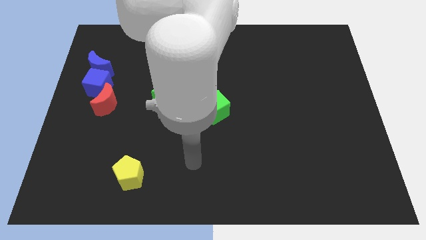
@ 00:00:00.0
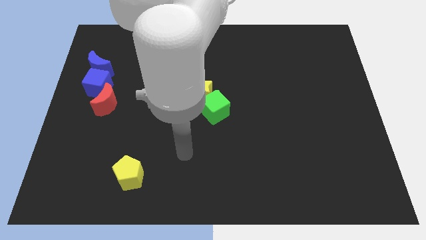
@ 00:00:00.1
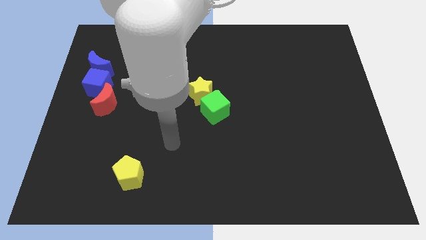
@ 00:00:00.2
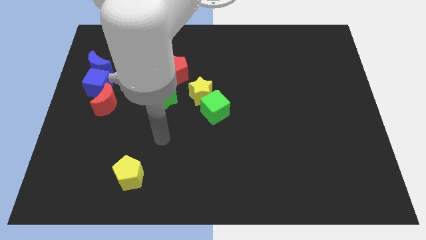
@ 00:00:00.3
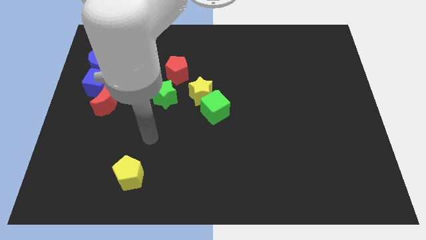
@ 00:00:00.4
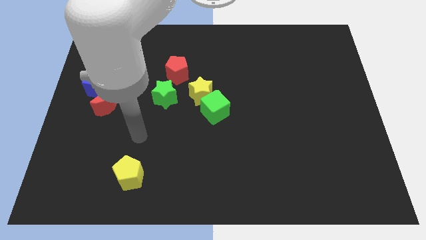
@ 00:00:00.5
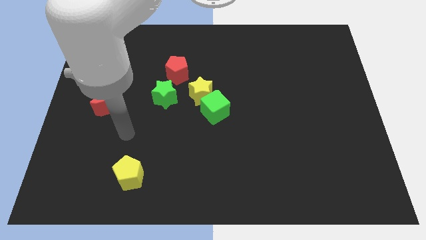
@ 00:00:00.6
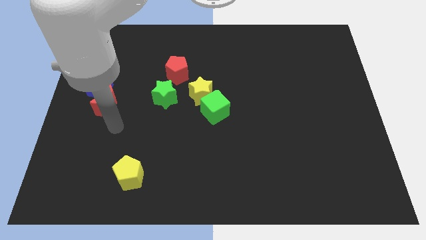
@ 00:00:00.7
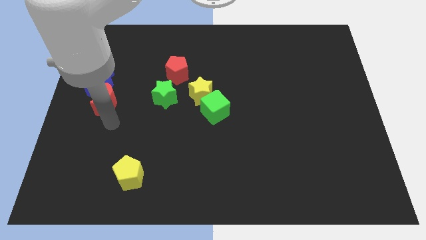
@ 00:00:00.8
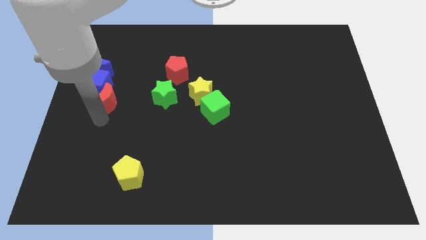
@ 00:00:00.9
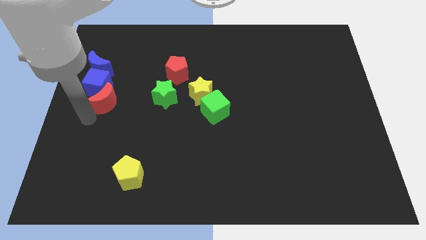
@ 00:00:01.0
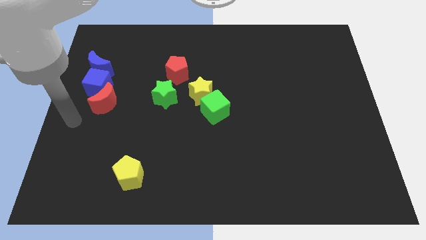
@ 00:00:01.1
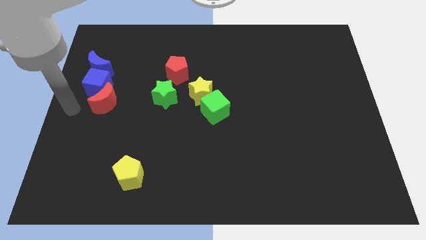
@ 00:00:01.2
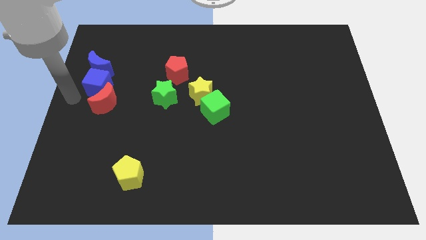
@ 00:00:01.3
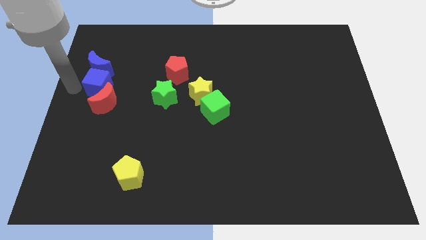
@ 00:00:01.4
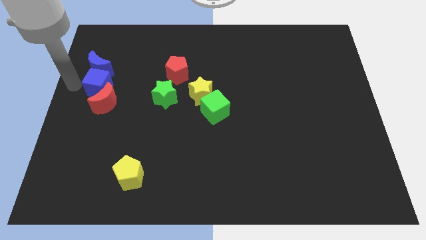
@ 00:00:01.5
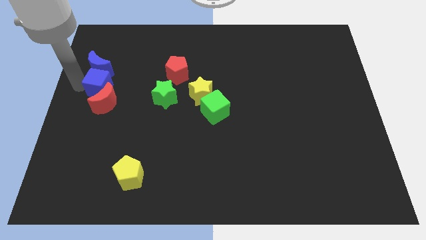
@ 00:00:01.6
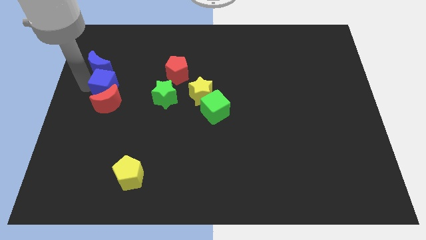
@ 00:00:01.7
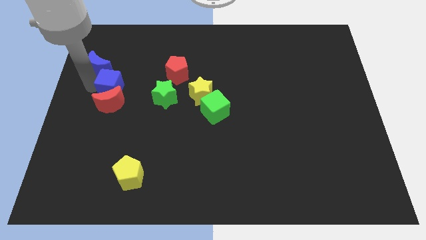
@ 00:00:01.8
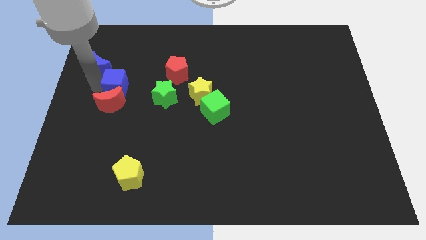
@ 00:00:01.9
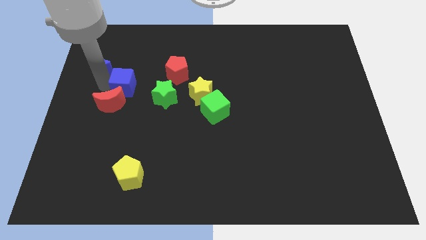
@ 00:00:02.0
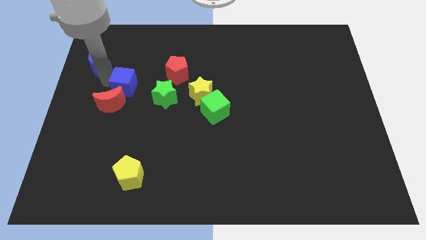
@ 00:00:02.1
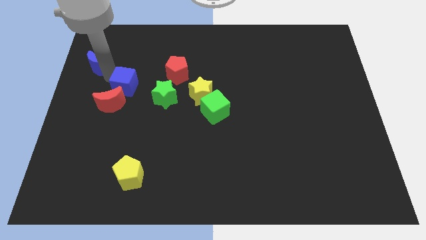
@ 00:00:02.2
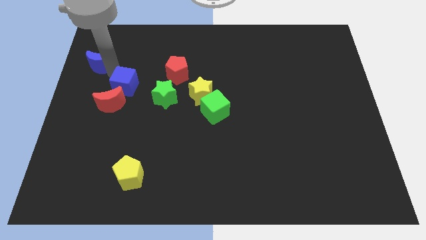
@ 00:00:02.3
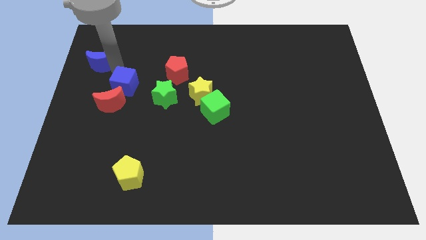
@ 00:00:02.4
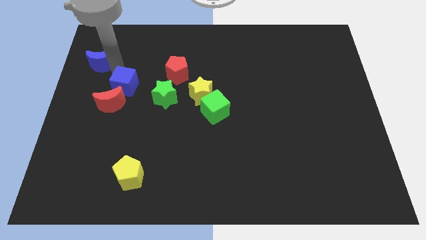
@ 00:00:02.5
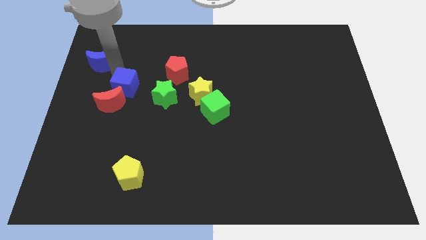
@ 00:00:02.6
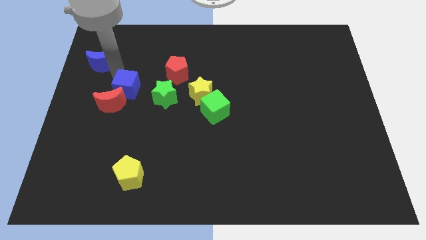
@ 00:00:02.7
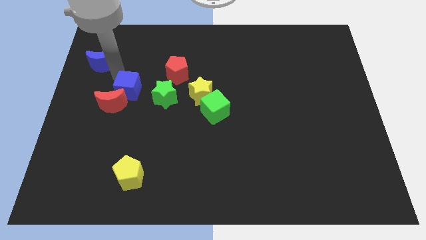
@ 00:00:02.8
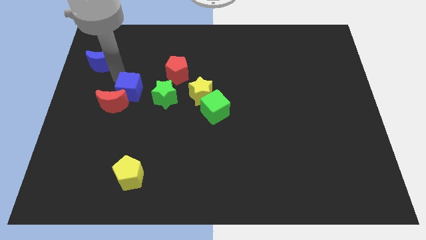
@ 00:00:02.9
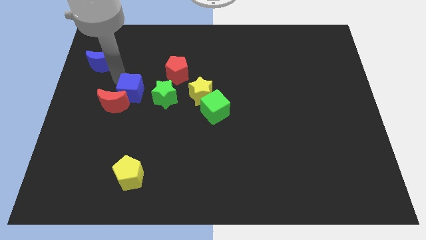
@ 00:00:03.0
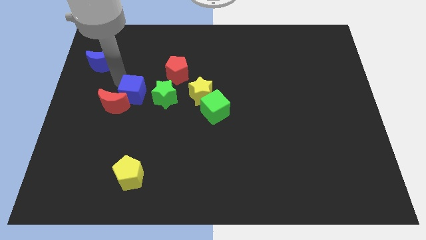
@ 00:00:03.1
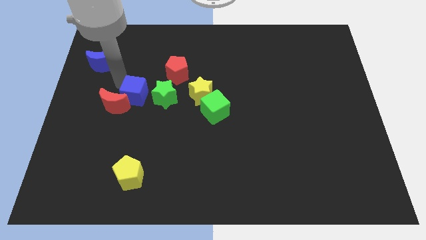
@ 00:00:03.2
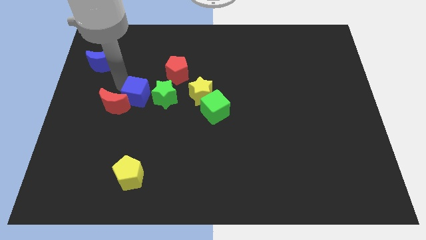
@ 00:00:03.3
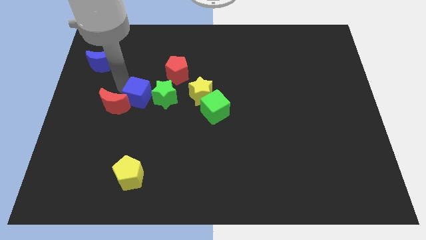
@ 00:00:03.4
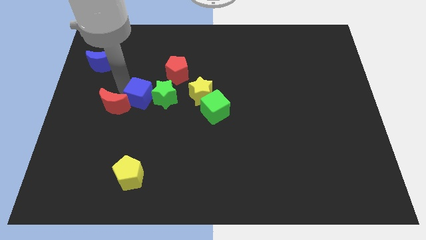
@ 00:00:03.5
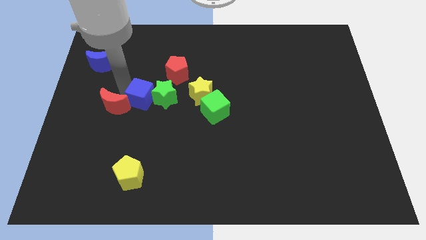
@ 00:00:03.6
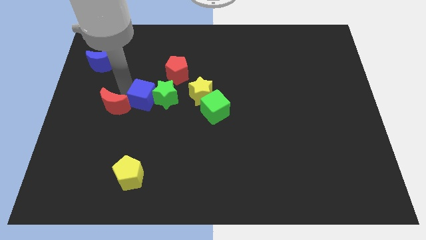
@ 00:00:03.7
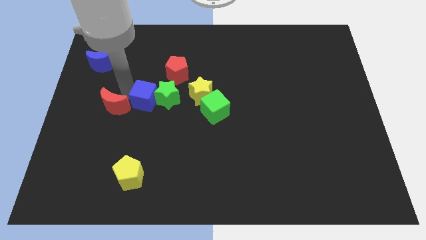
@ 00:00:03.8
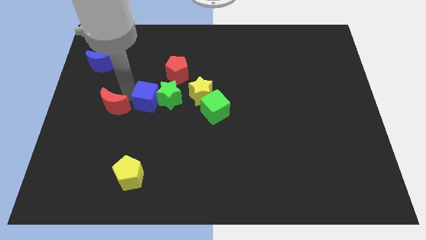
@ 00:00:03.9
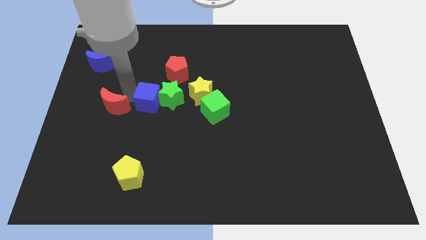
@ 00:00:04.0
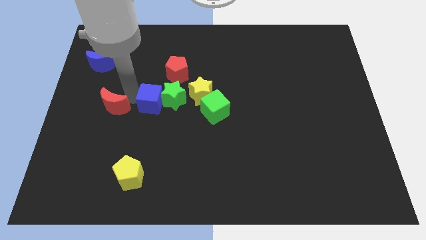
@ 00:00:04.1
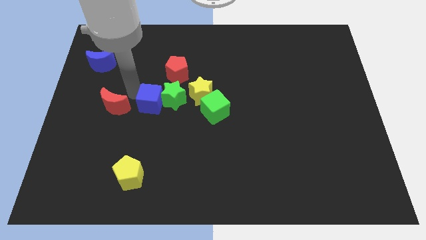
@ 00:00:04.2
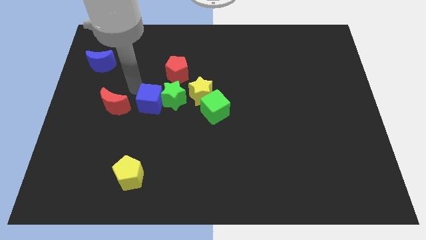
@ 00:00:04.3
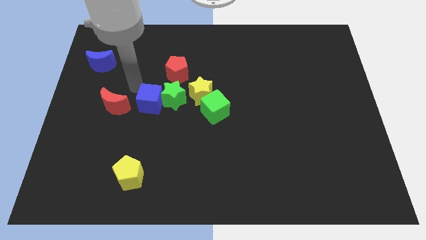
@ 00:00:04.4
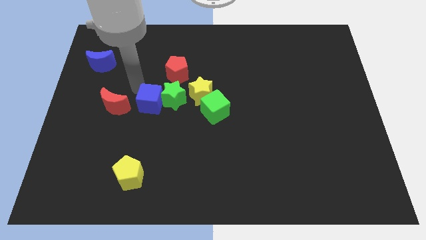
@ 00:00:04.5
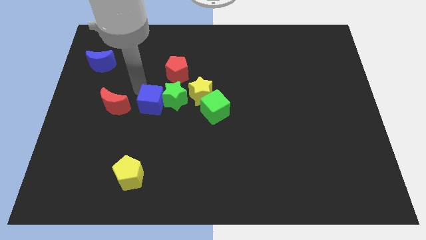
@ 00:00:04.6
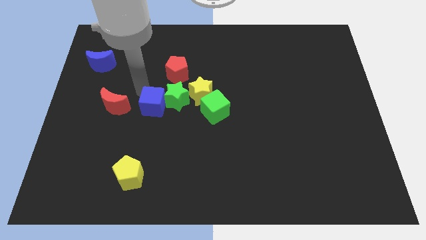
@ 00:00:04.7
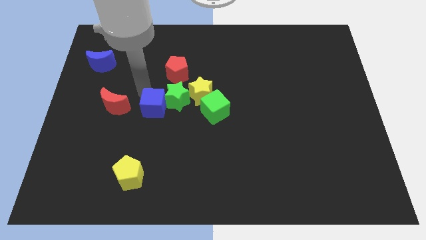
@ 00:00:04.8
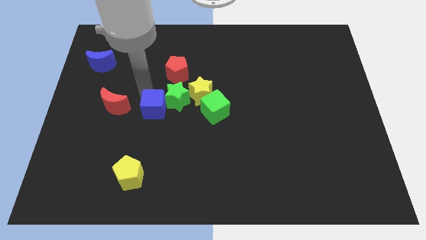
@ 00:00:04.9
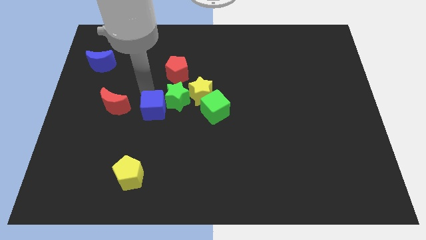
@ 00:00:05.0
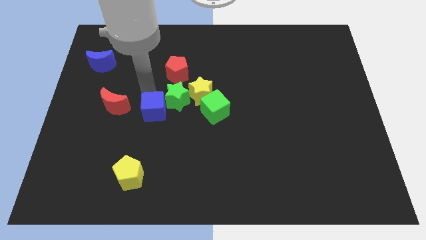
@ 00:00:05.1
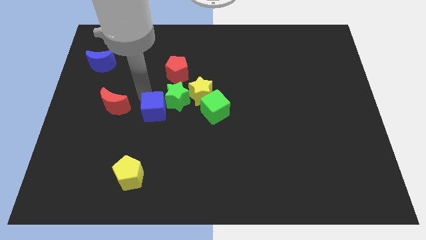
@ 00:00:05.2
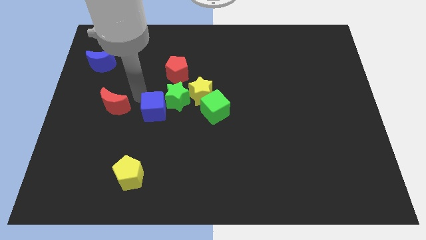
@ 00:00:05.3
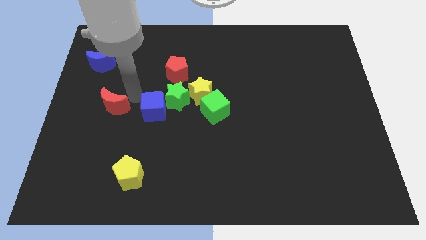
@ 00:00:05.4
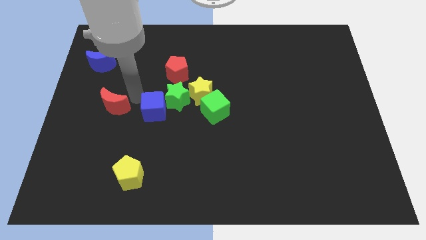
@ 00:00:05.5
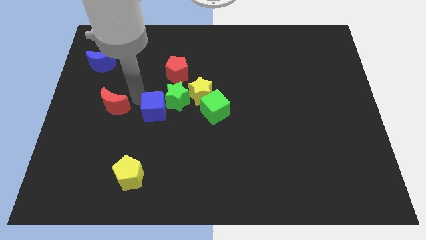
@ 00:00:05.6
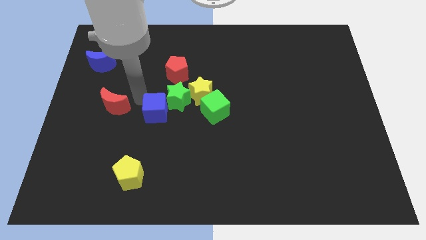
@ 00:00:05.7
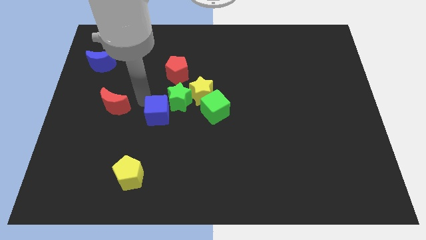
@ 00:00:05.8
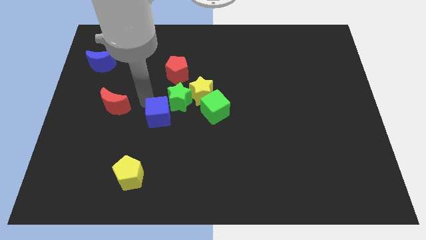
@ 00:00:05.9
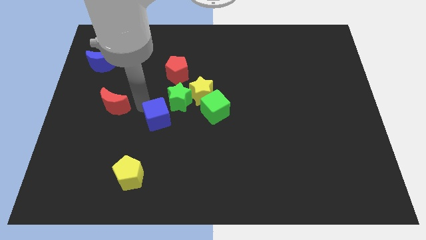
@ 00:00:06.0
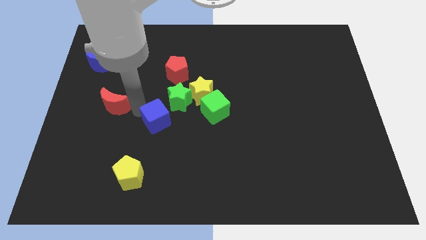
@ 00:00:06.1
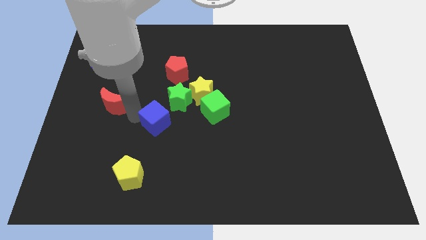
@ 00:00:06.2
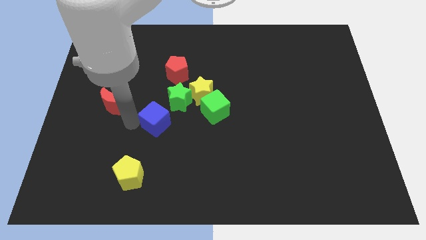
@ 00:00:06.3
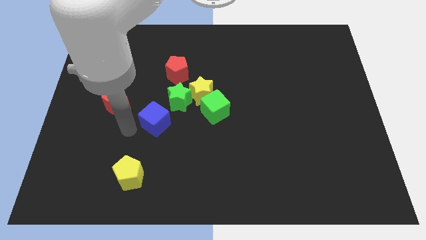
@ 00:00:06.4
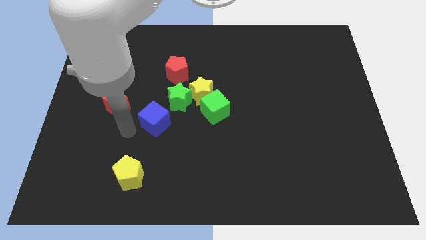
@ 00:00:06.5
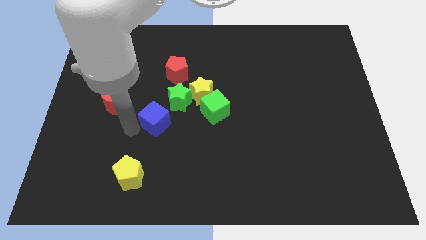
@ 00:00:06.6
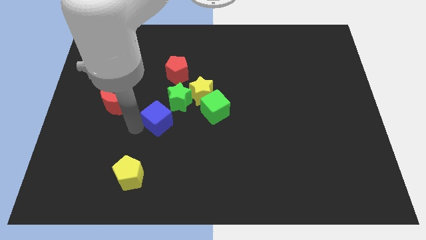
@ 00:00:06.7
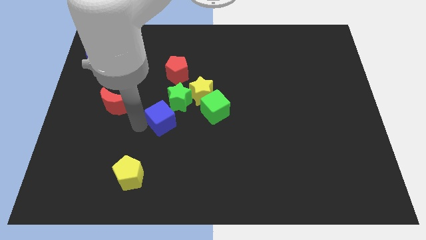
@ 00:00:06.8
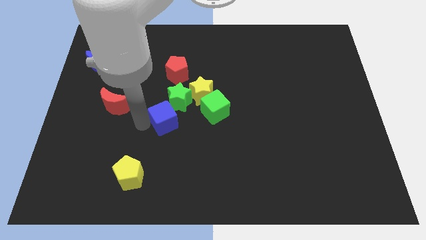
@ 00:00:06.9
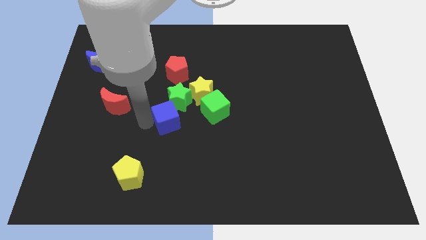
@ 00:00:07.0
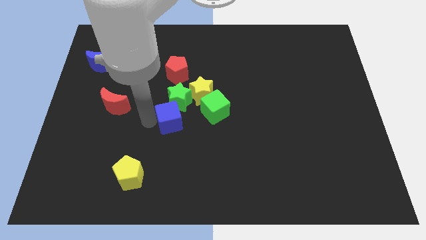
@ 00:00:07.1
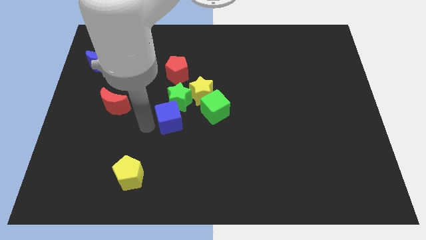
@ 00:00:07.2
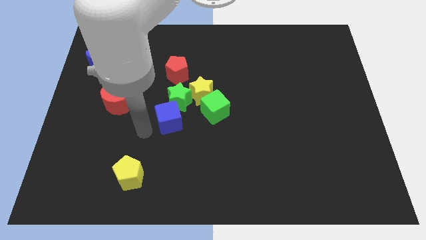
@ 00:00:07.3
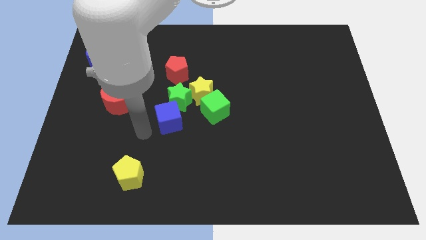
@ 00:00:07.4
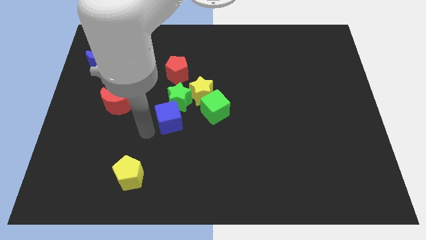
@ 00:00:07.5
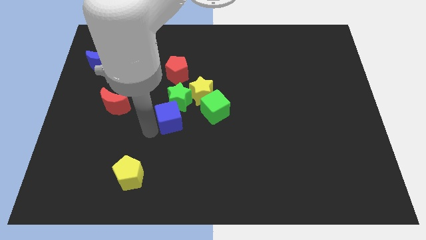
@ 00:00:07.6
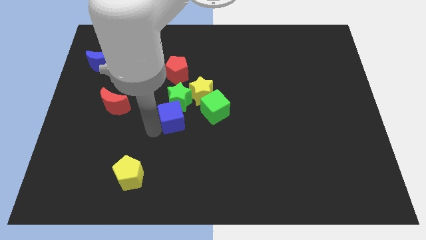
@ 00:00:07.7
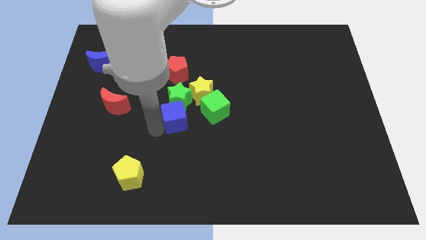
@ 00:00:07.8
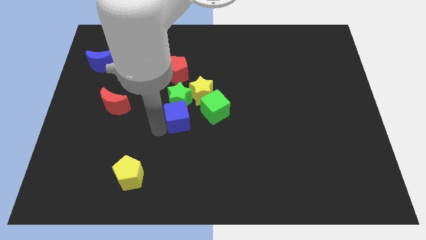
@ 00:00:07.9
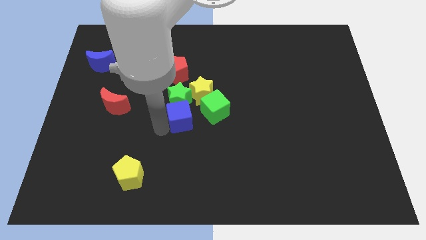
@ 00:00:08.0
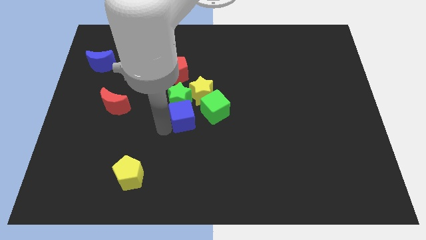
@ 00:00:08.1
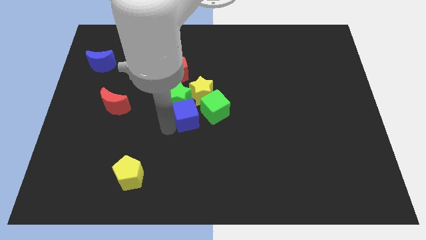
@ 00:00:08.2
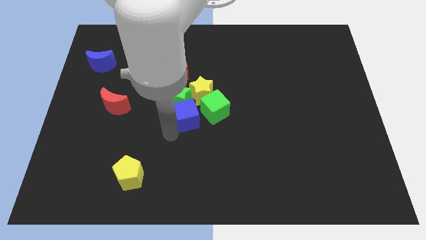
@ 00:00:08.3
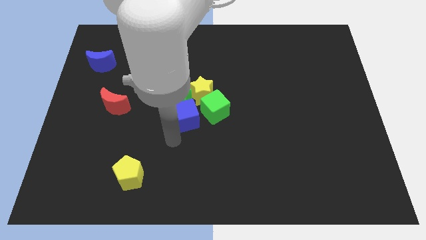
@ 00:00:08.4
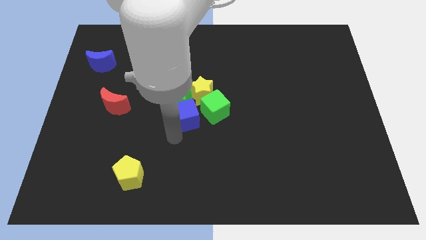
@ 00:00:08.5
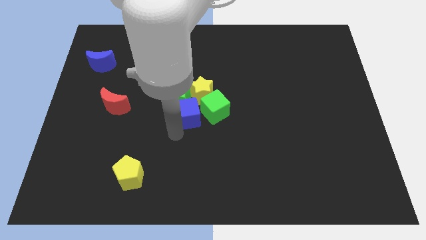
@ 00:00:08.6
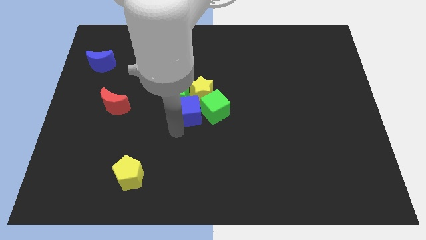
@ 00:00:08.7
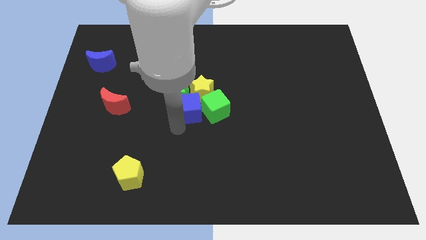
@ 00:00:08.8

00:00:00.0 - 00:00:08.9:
push the blue cube to the yellow star
